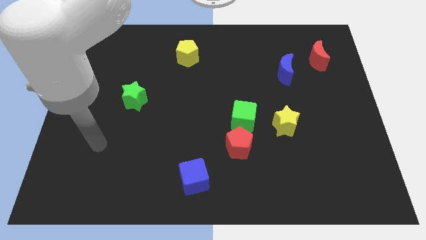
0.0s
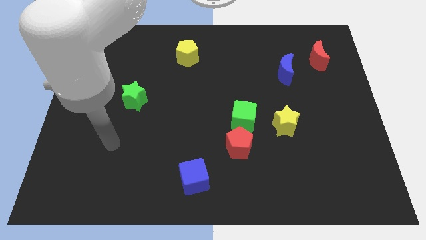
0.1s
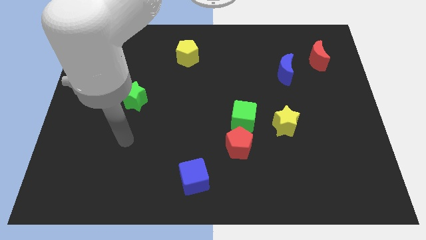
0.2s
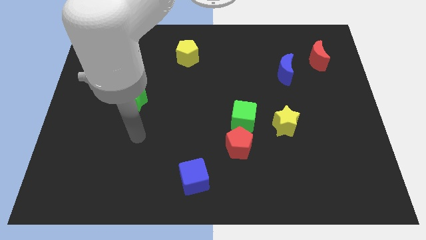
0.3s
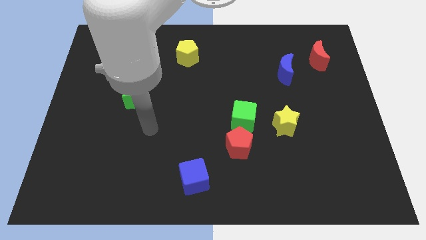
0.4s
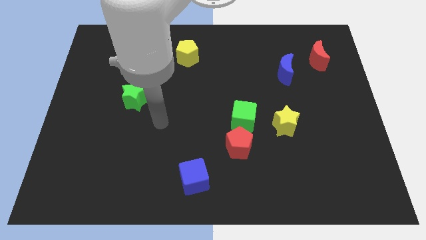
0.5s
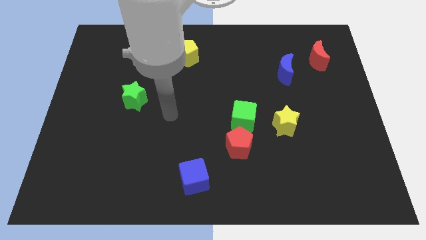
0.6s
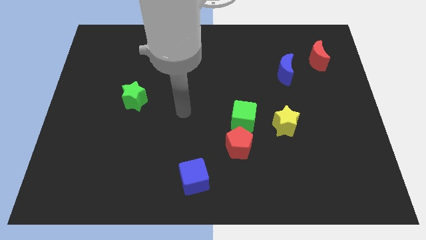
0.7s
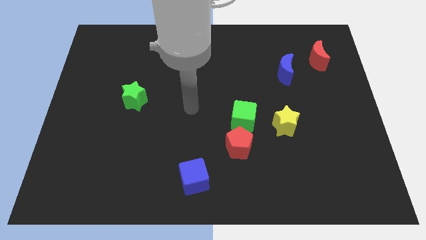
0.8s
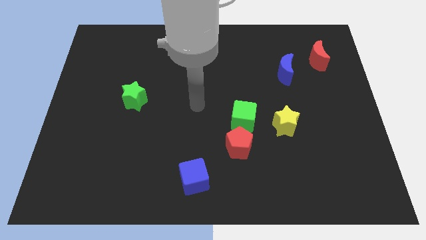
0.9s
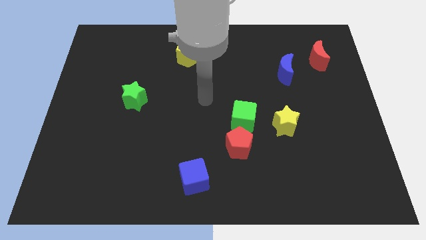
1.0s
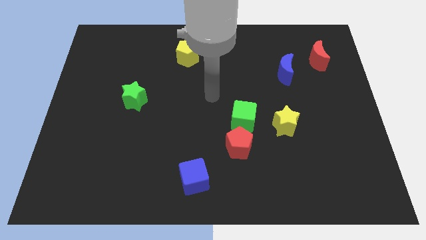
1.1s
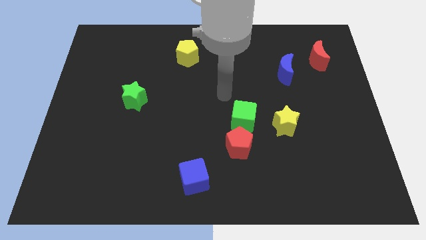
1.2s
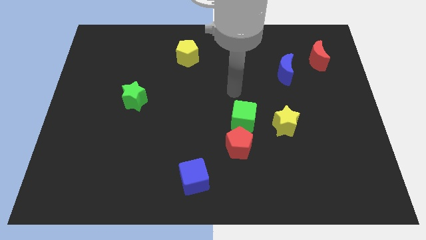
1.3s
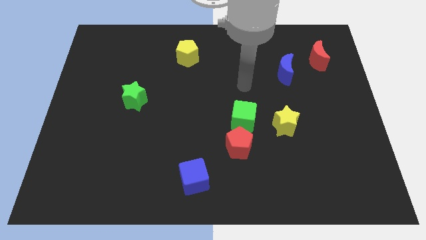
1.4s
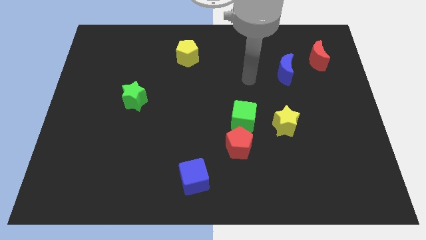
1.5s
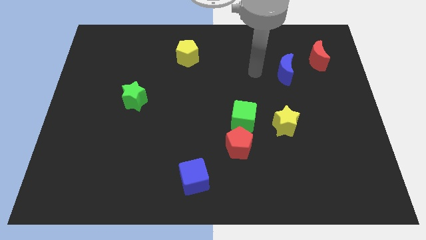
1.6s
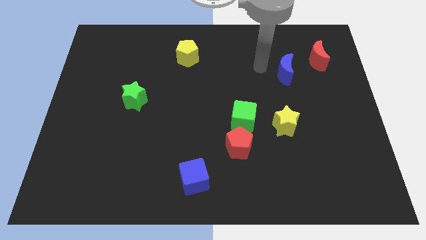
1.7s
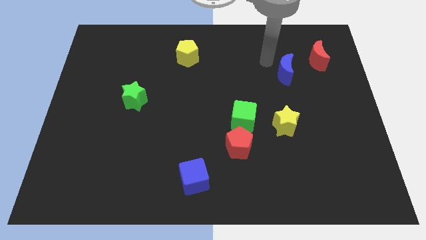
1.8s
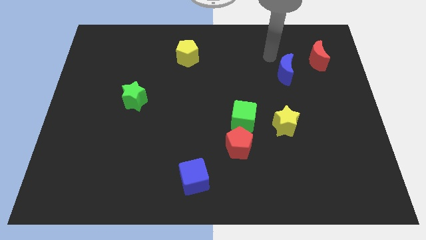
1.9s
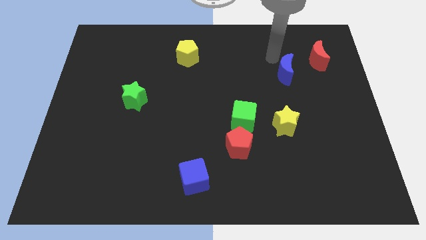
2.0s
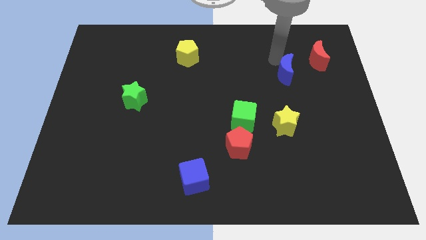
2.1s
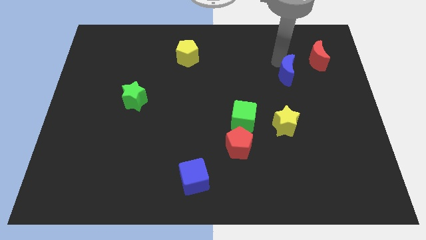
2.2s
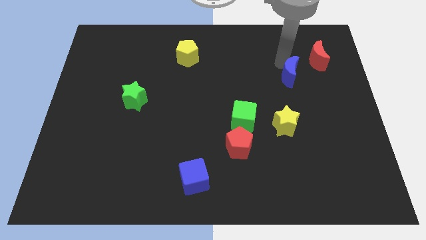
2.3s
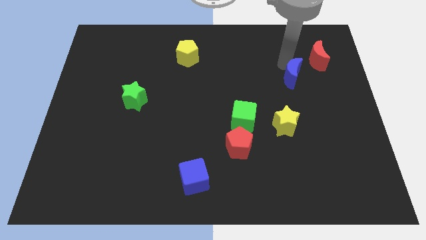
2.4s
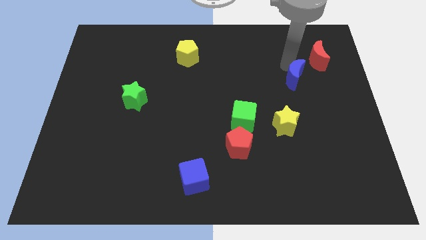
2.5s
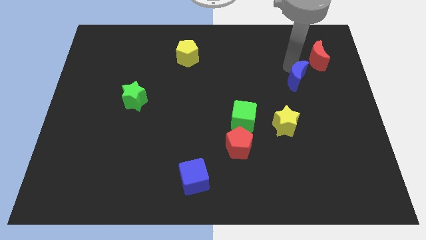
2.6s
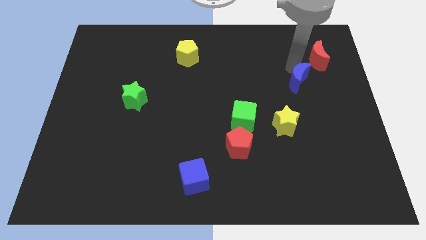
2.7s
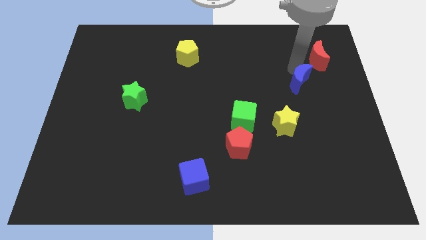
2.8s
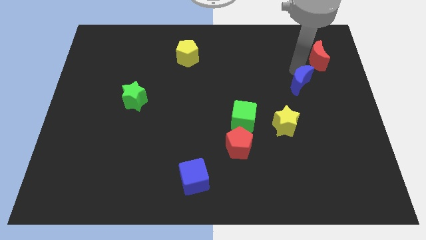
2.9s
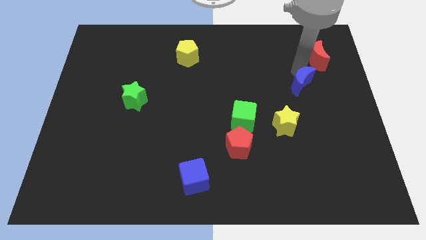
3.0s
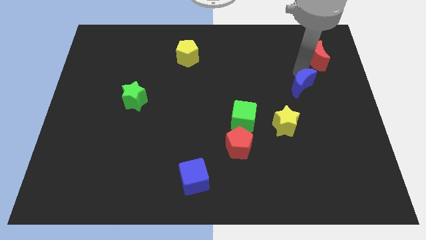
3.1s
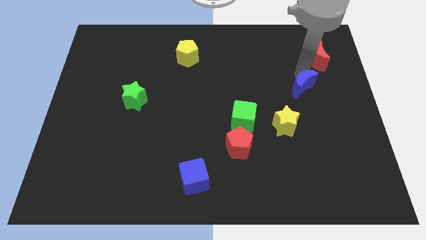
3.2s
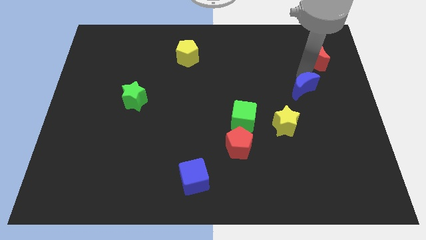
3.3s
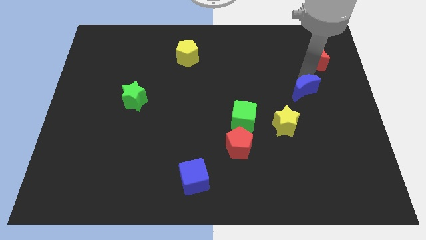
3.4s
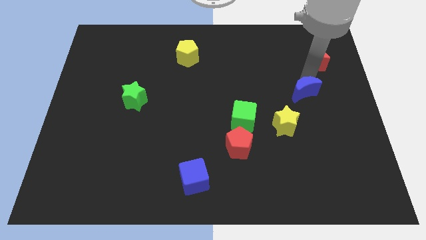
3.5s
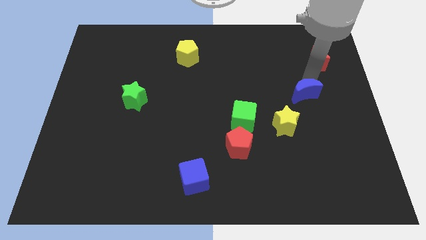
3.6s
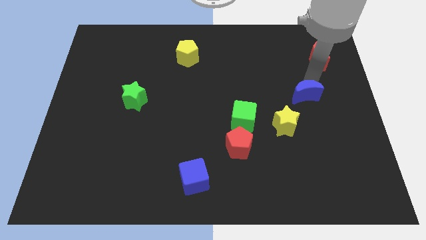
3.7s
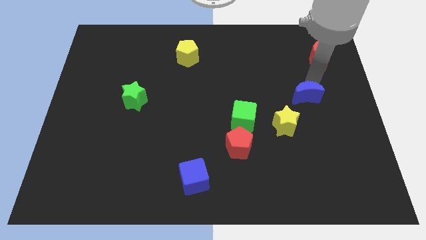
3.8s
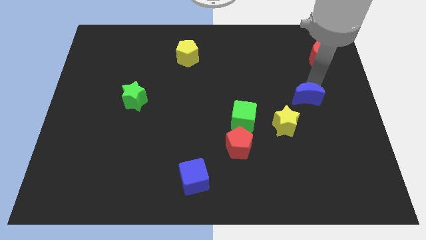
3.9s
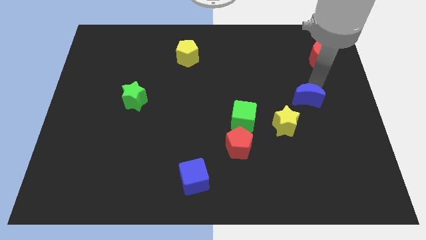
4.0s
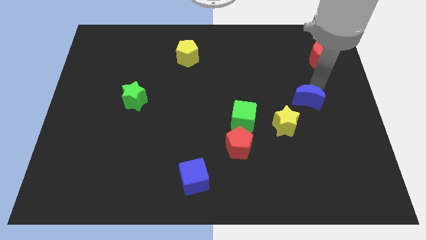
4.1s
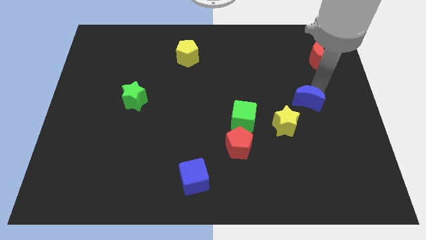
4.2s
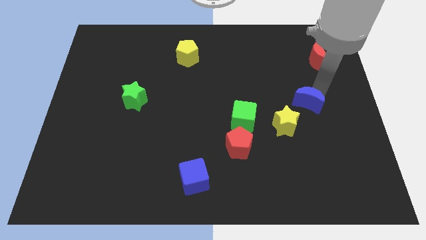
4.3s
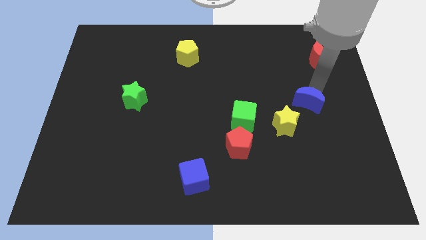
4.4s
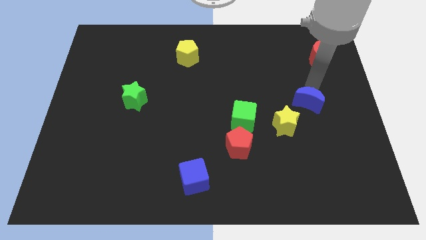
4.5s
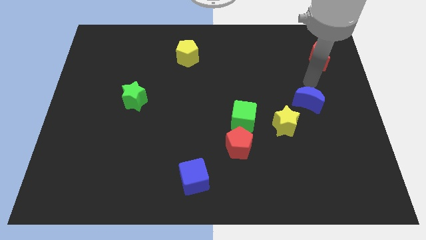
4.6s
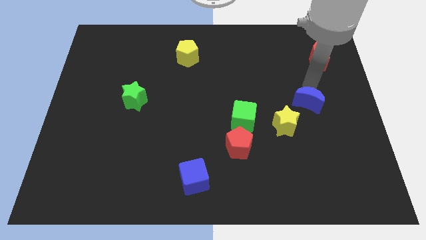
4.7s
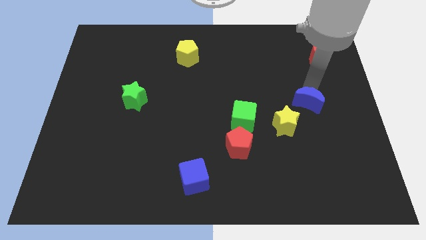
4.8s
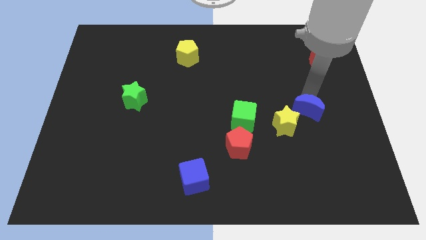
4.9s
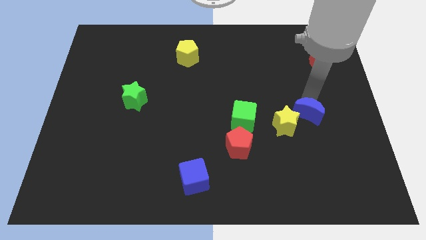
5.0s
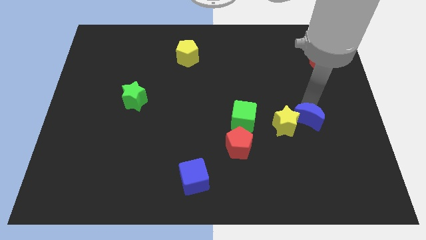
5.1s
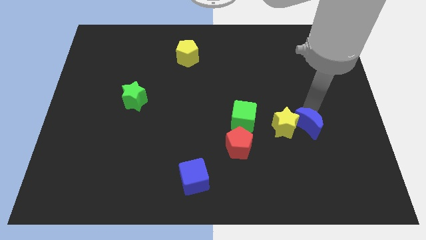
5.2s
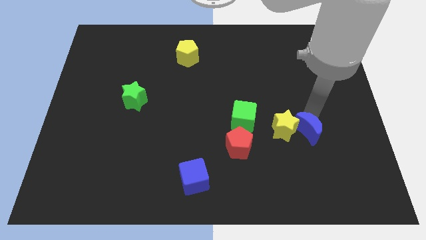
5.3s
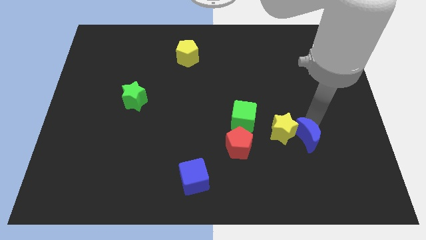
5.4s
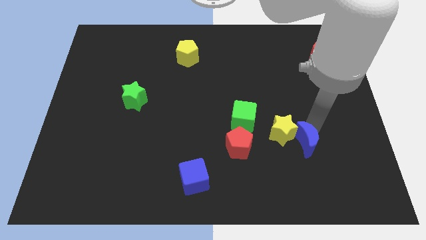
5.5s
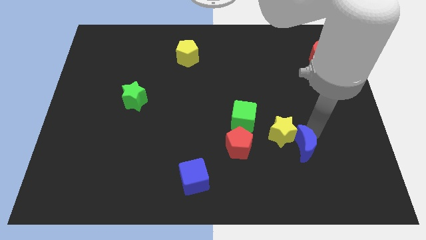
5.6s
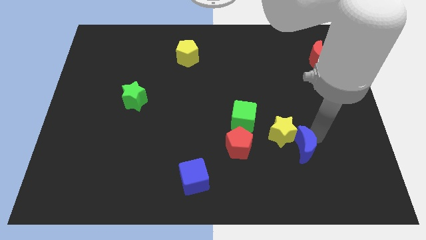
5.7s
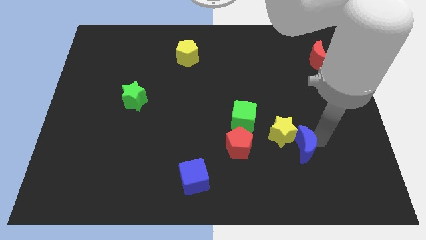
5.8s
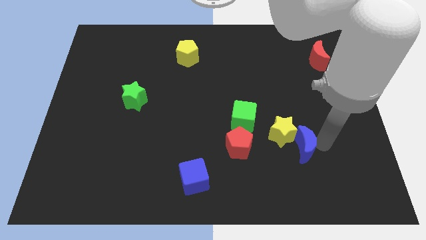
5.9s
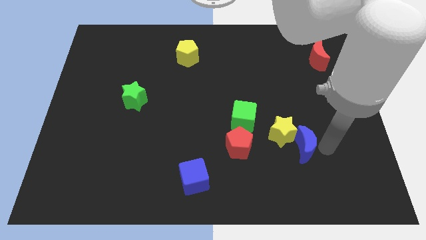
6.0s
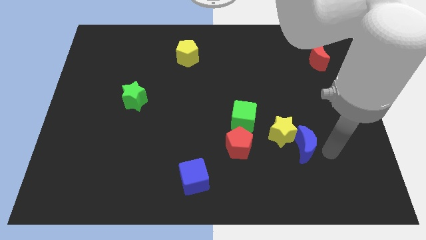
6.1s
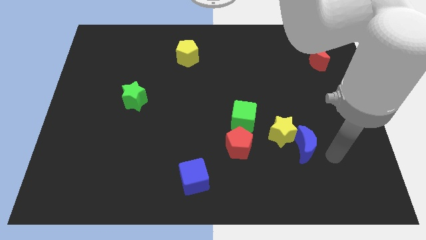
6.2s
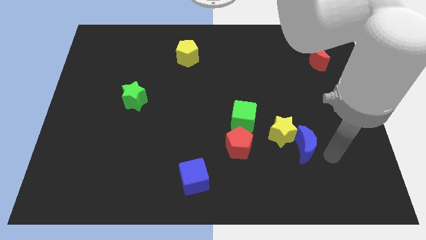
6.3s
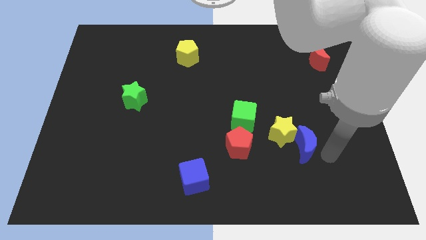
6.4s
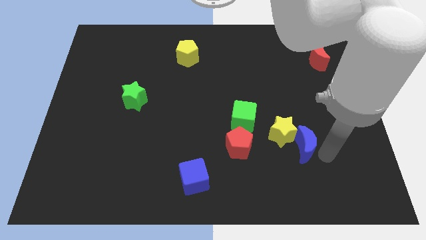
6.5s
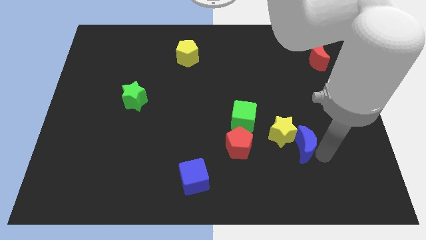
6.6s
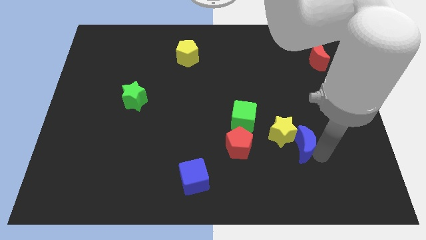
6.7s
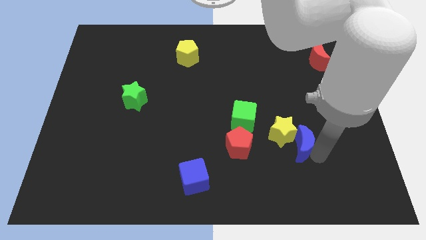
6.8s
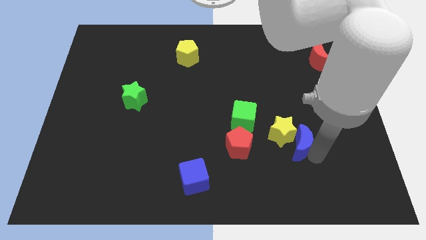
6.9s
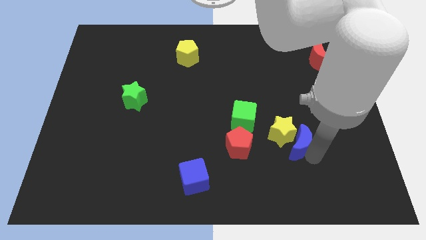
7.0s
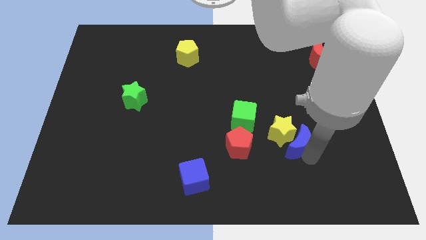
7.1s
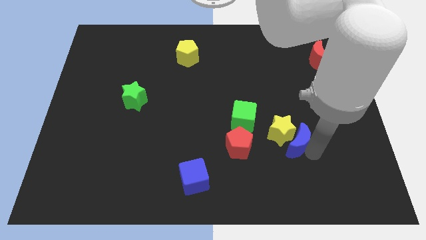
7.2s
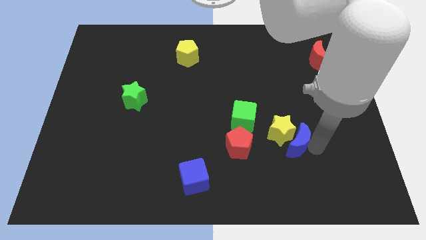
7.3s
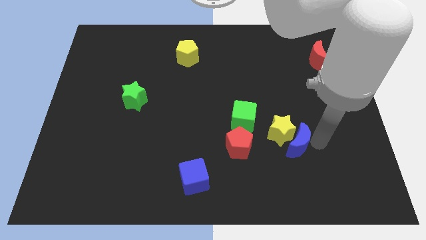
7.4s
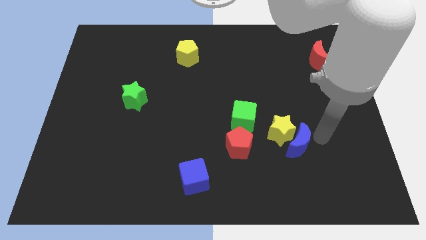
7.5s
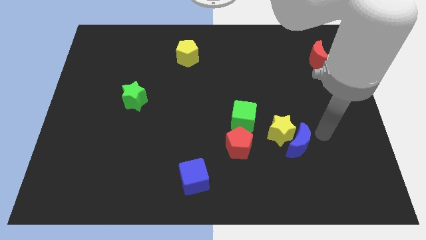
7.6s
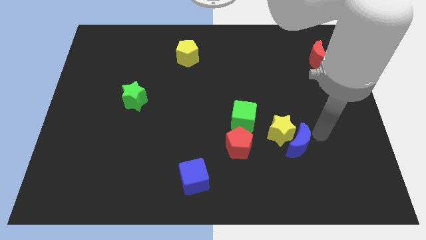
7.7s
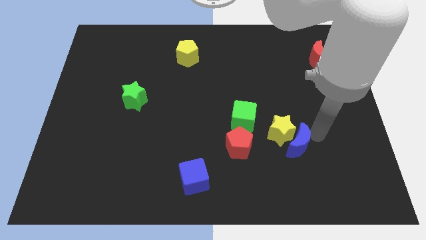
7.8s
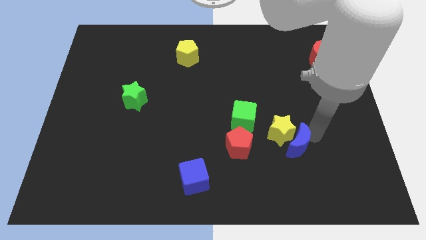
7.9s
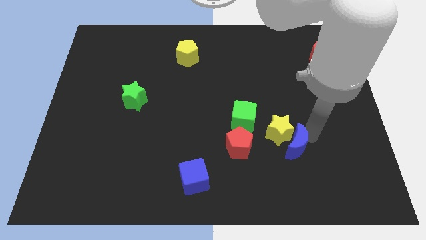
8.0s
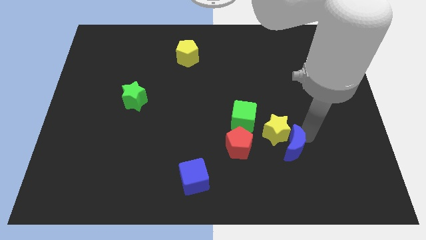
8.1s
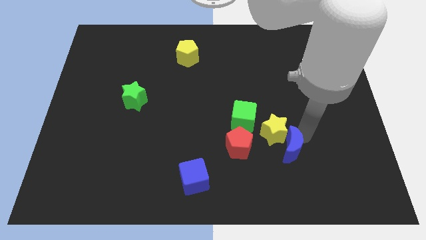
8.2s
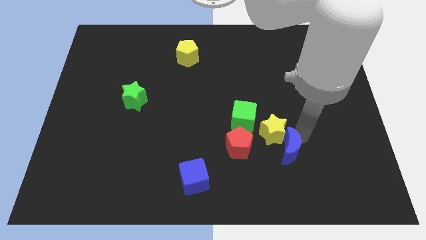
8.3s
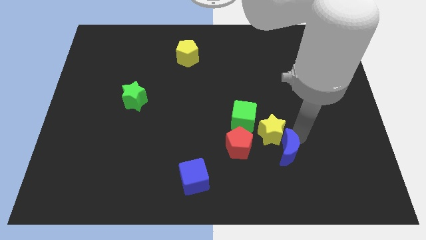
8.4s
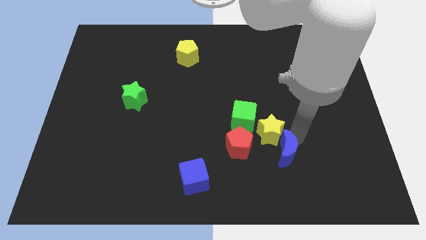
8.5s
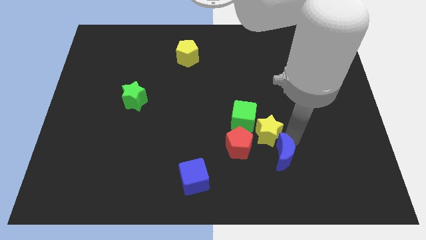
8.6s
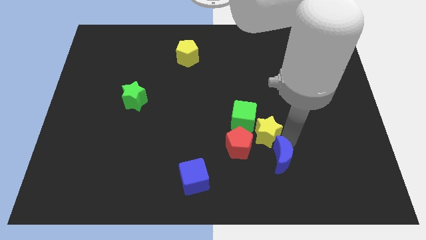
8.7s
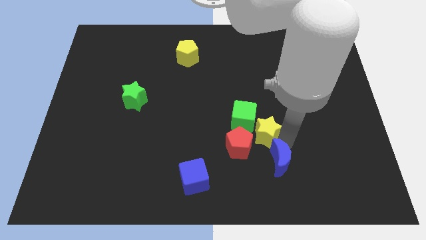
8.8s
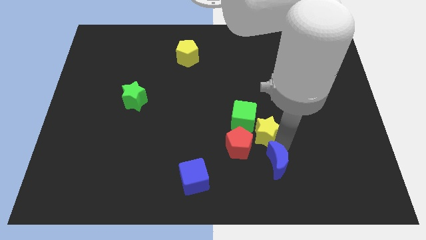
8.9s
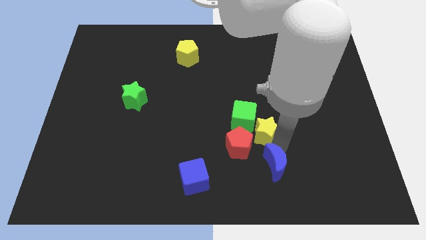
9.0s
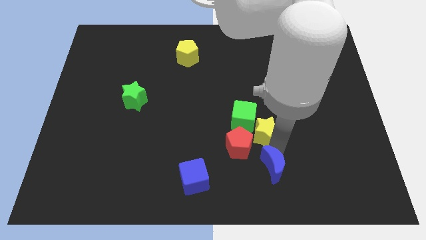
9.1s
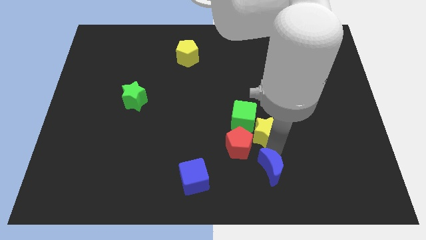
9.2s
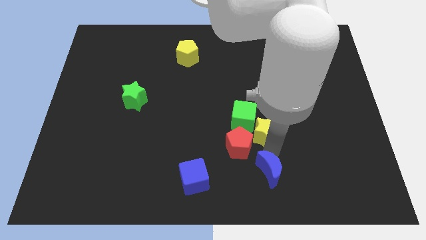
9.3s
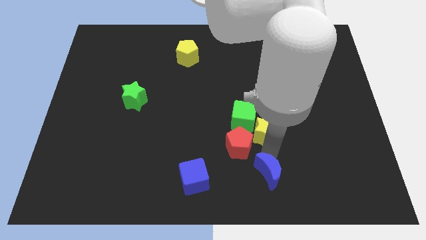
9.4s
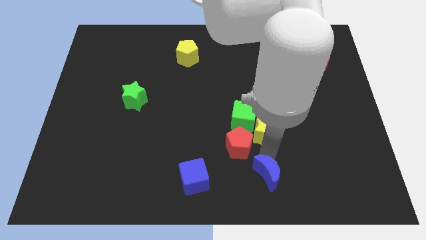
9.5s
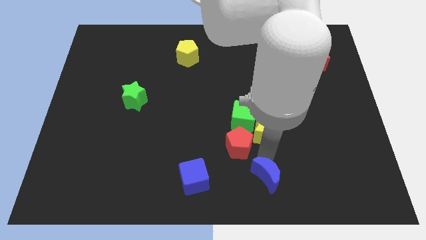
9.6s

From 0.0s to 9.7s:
put the blue moon to the bottom
